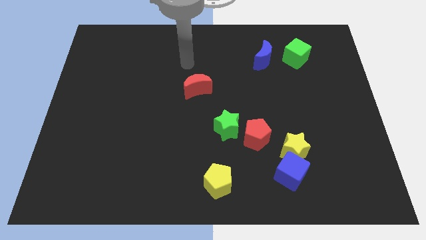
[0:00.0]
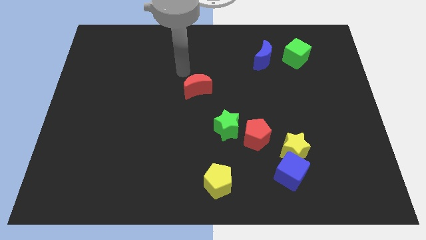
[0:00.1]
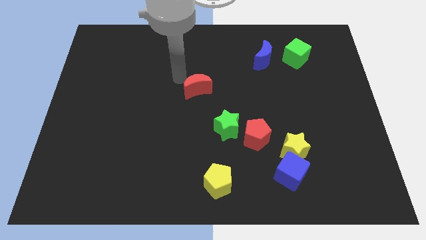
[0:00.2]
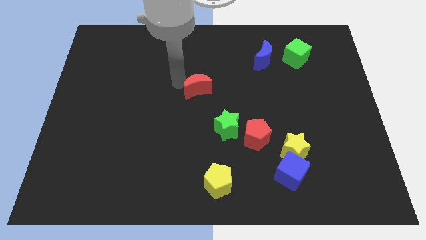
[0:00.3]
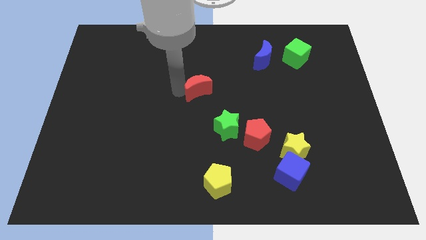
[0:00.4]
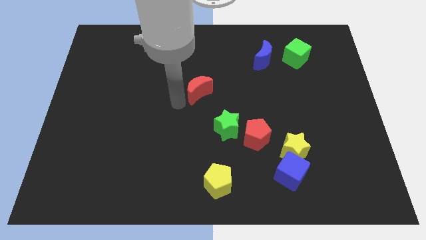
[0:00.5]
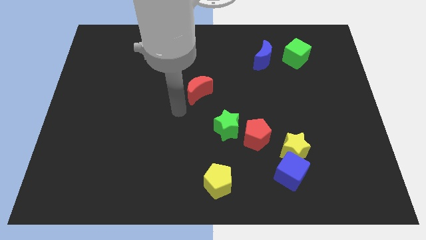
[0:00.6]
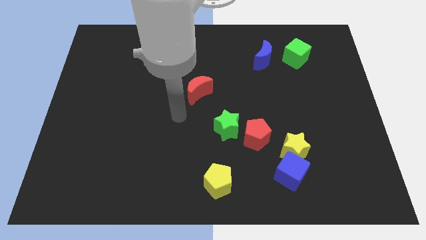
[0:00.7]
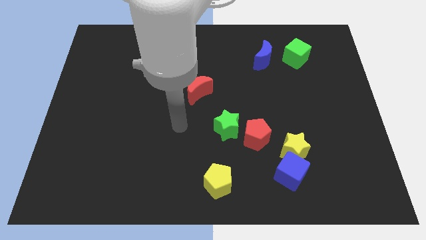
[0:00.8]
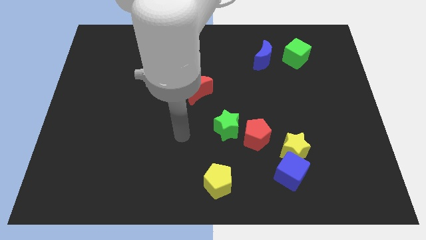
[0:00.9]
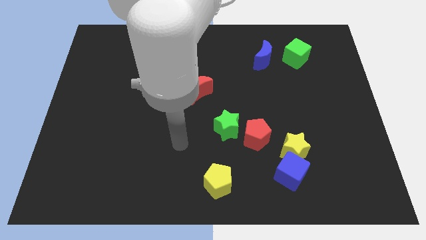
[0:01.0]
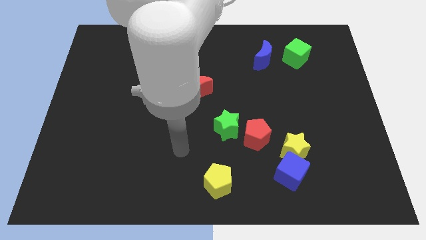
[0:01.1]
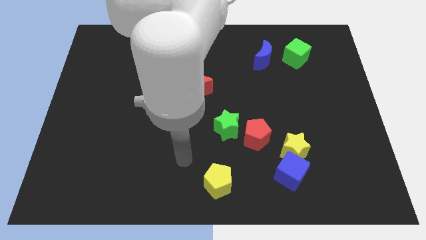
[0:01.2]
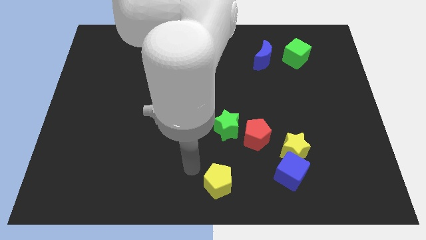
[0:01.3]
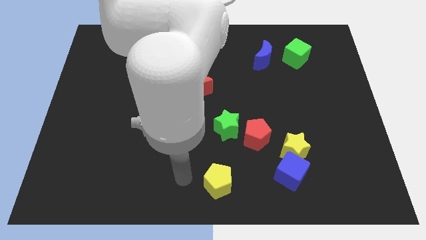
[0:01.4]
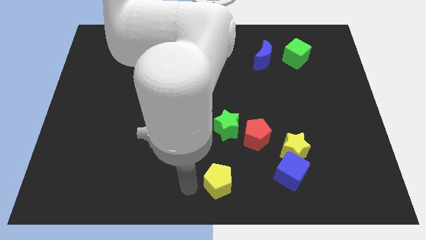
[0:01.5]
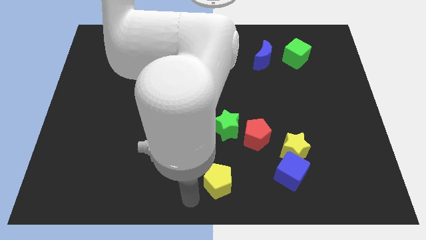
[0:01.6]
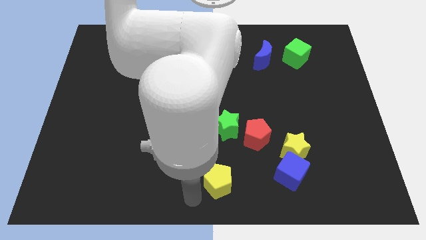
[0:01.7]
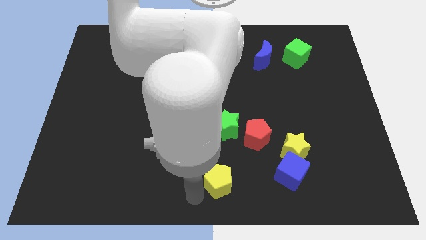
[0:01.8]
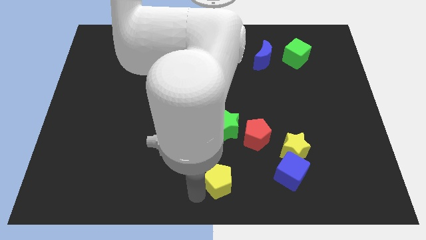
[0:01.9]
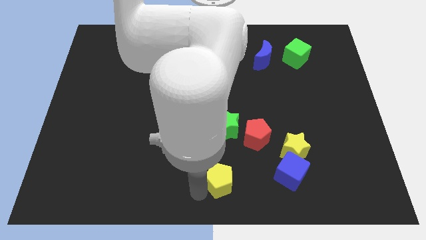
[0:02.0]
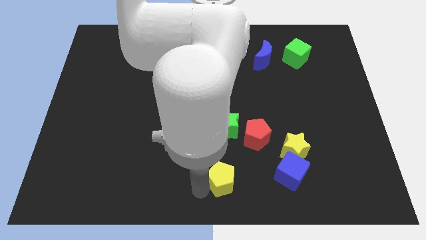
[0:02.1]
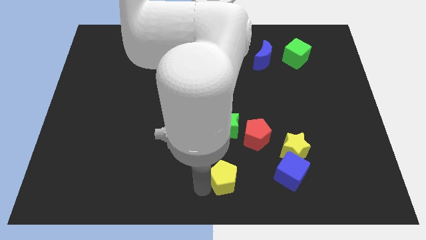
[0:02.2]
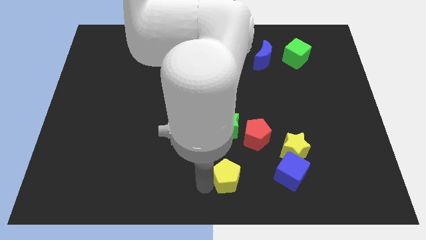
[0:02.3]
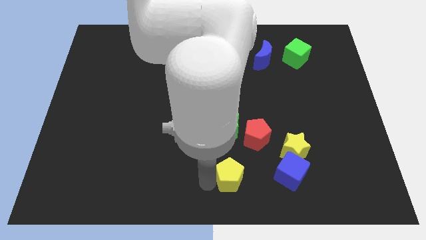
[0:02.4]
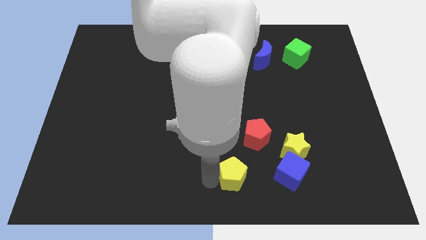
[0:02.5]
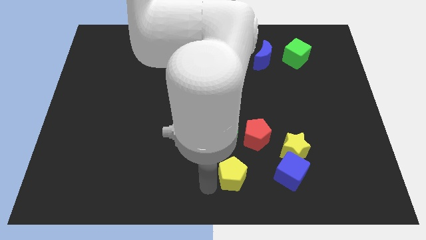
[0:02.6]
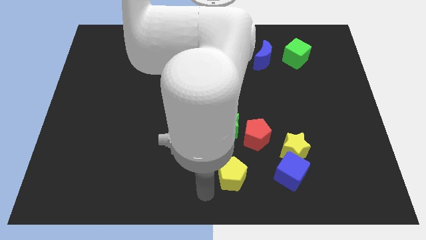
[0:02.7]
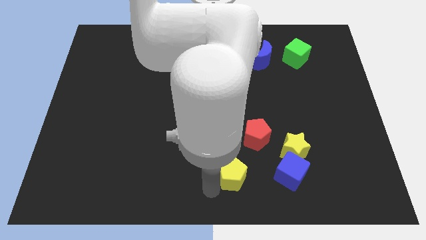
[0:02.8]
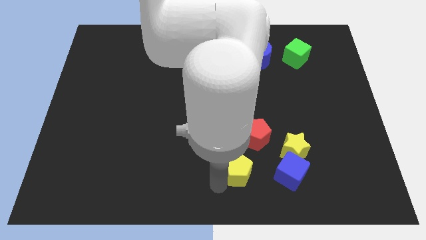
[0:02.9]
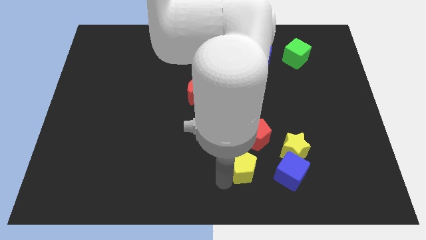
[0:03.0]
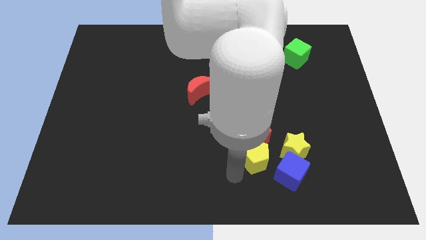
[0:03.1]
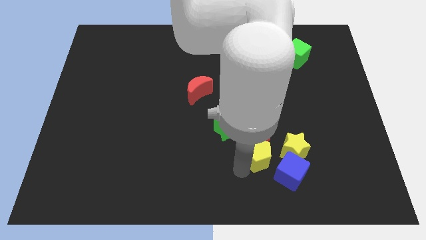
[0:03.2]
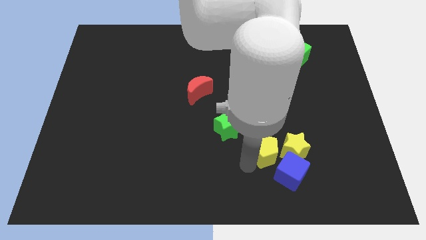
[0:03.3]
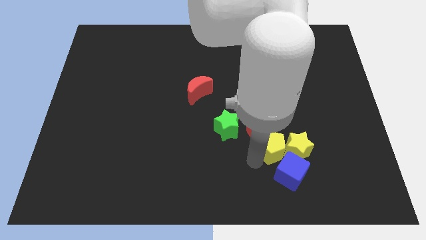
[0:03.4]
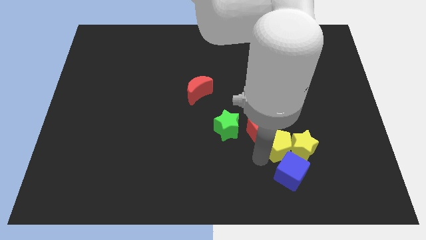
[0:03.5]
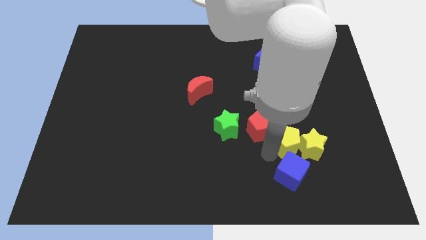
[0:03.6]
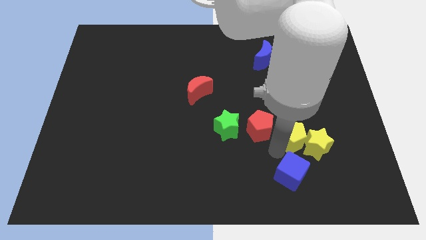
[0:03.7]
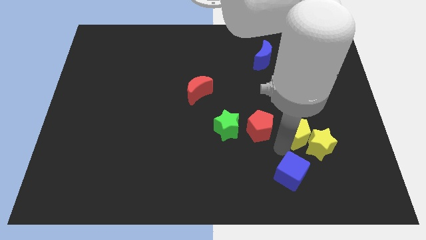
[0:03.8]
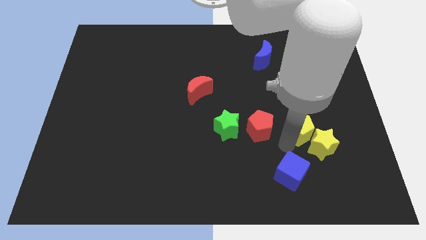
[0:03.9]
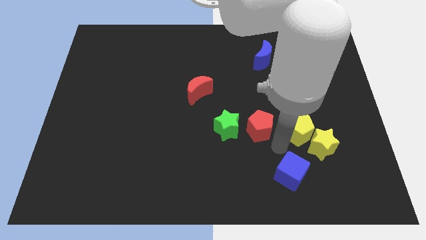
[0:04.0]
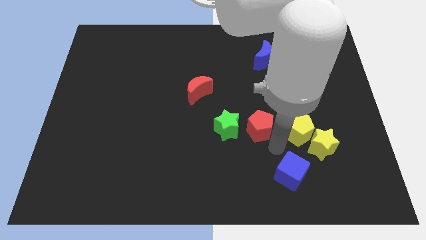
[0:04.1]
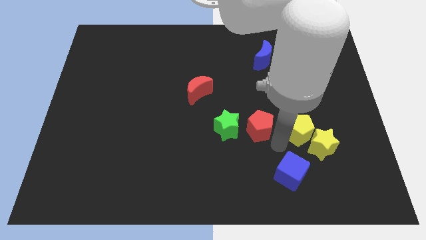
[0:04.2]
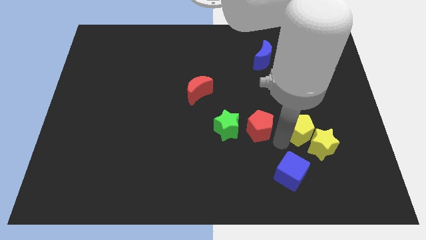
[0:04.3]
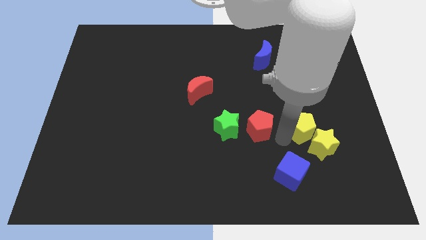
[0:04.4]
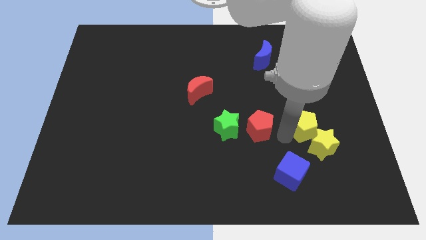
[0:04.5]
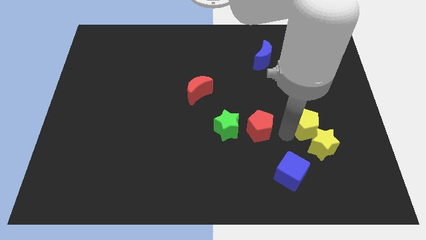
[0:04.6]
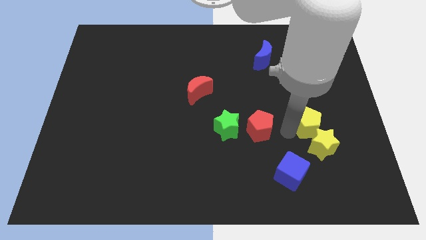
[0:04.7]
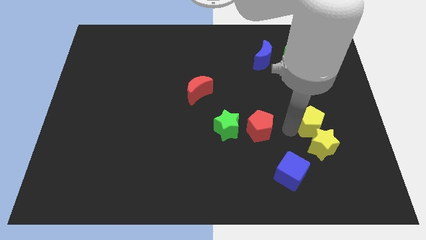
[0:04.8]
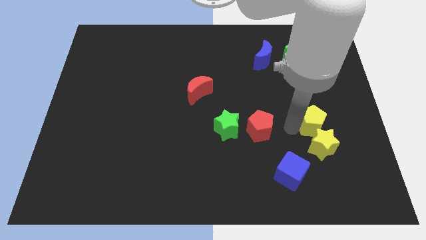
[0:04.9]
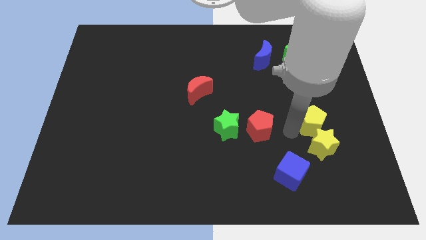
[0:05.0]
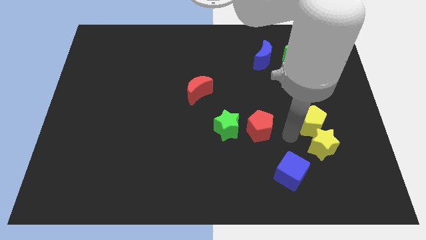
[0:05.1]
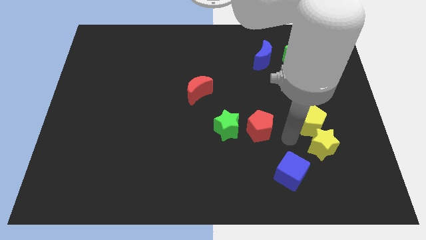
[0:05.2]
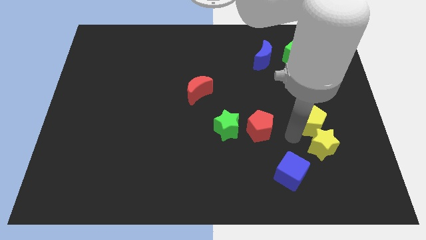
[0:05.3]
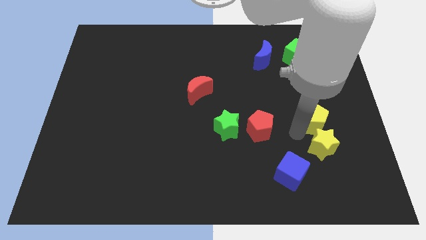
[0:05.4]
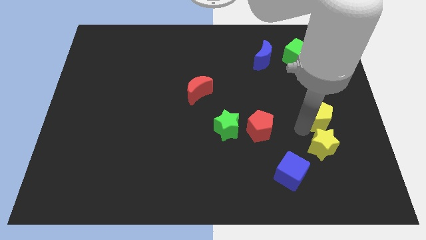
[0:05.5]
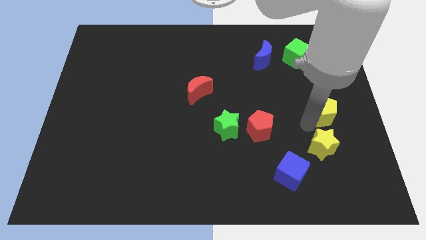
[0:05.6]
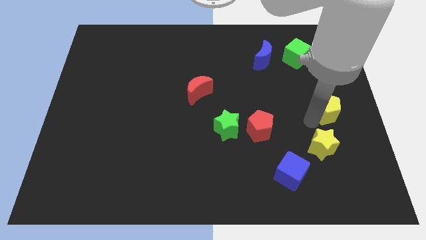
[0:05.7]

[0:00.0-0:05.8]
slide the yellow pentagon to the right side

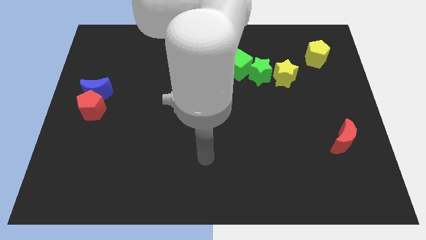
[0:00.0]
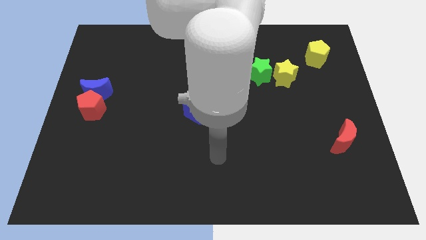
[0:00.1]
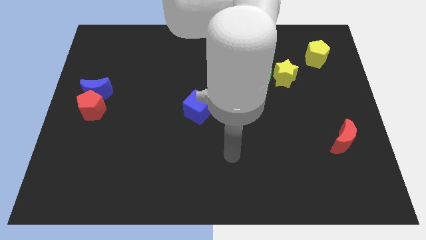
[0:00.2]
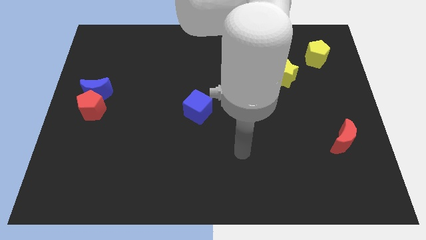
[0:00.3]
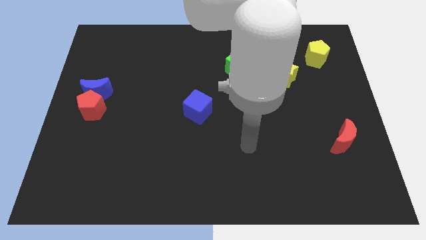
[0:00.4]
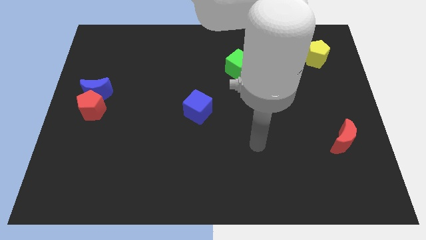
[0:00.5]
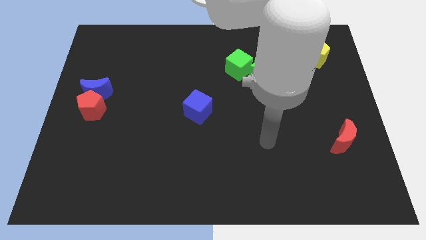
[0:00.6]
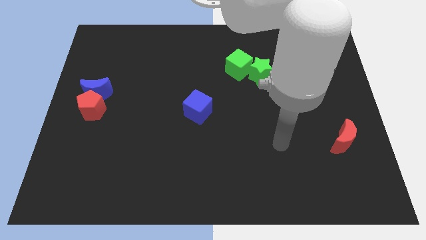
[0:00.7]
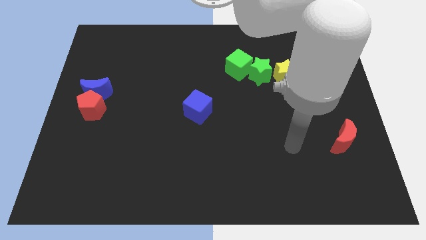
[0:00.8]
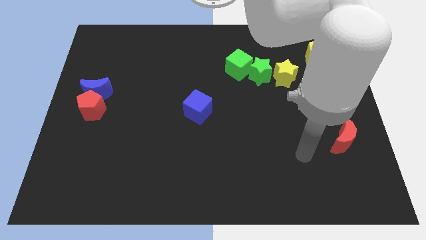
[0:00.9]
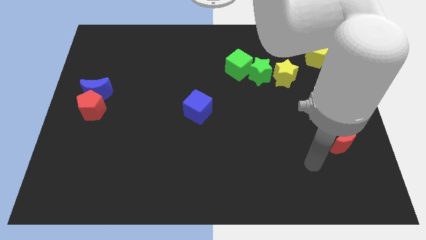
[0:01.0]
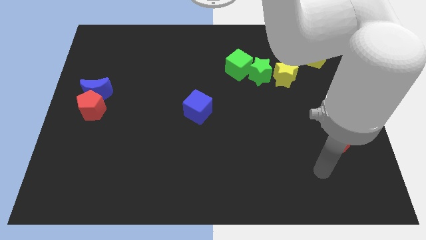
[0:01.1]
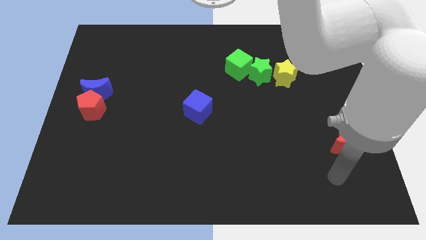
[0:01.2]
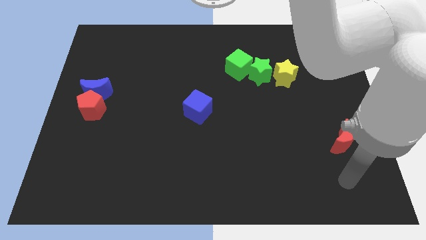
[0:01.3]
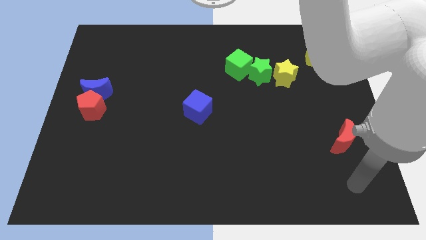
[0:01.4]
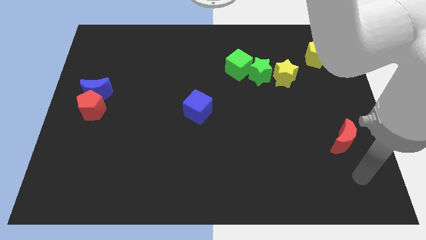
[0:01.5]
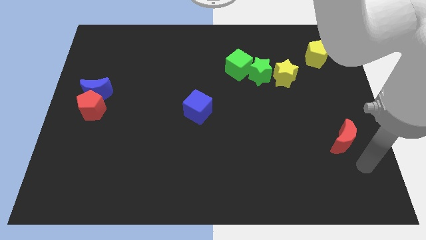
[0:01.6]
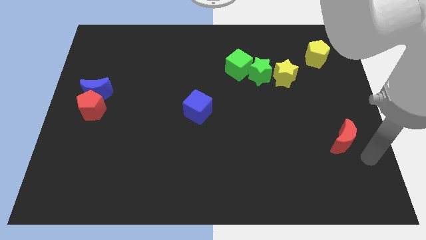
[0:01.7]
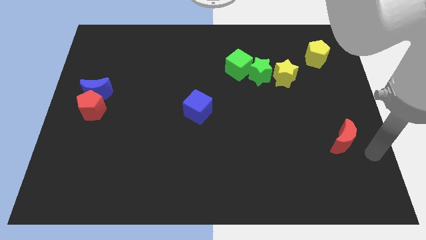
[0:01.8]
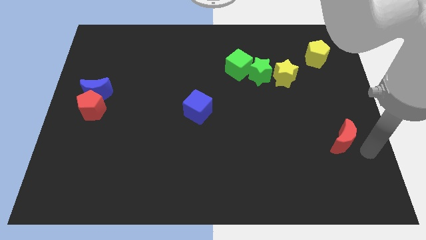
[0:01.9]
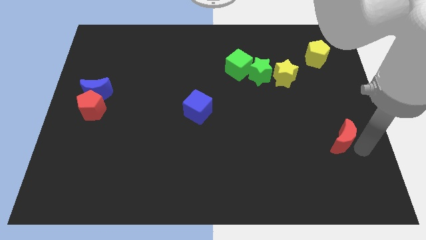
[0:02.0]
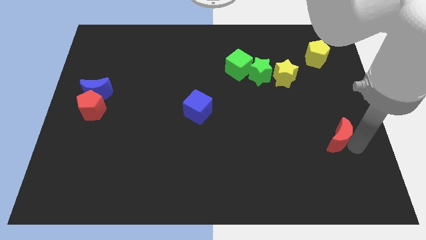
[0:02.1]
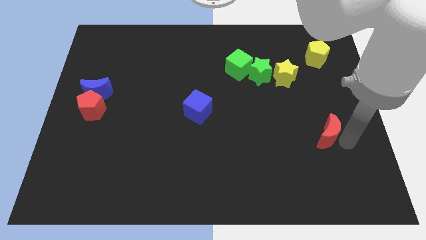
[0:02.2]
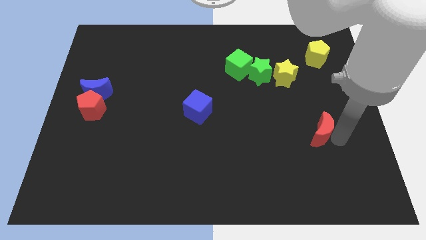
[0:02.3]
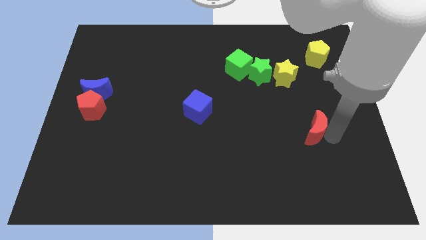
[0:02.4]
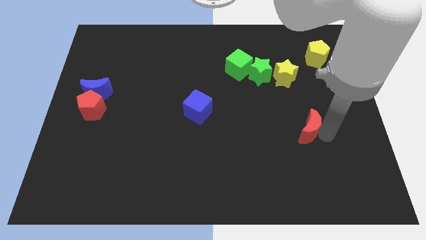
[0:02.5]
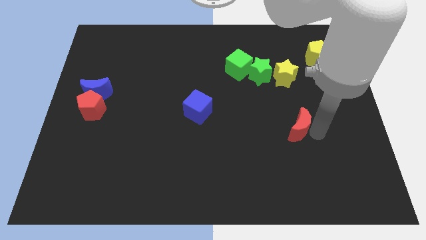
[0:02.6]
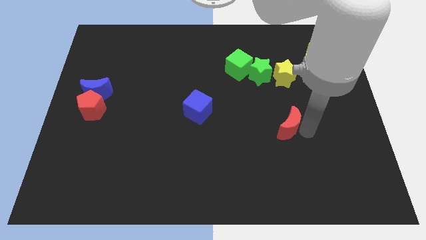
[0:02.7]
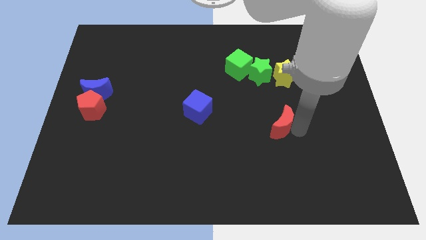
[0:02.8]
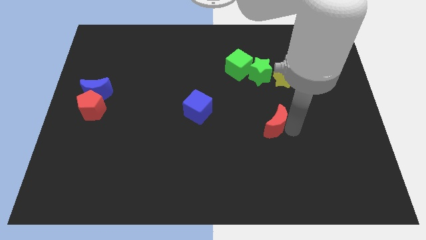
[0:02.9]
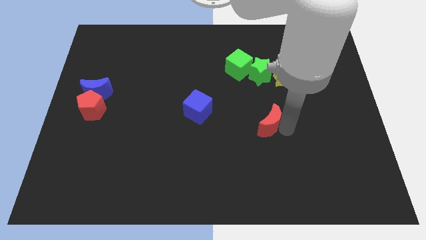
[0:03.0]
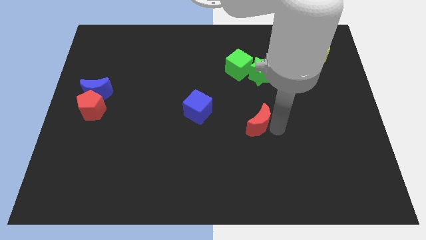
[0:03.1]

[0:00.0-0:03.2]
move the red moon to the center
